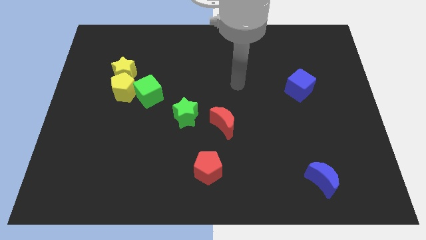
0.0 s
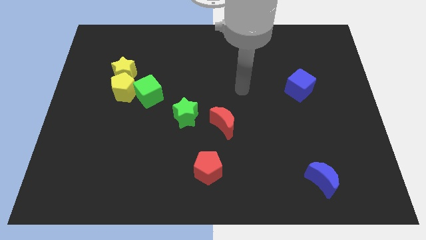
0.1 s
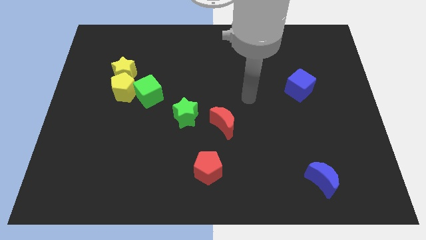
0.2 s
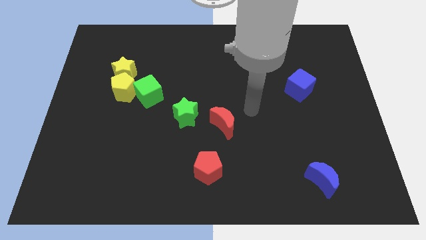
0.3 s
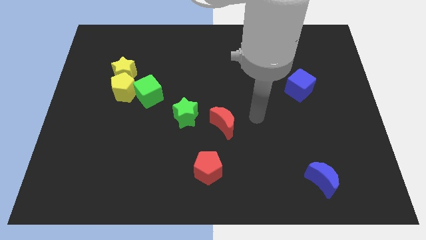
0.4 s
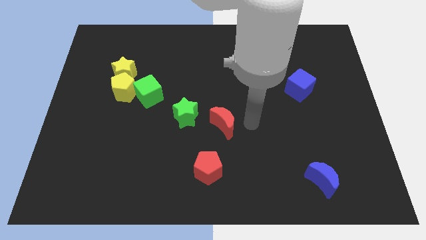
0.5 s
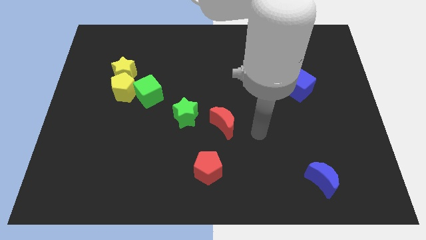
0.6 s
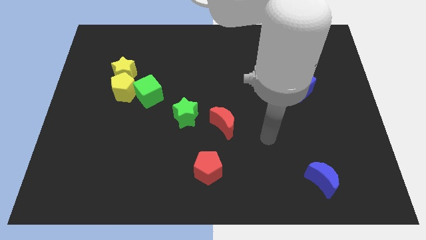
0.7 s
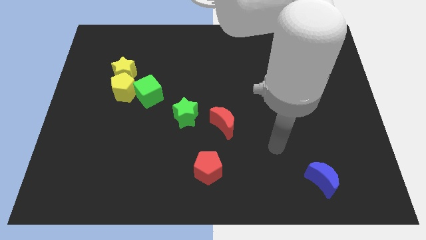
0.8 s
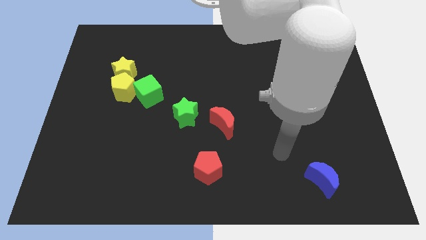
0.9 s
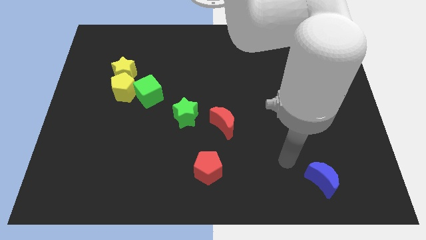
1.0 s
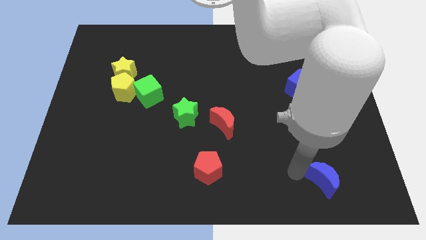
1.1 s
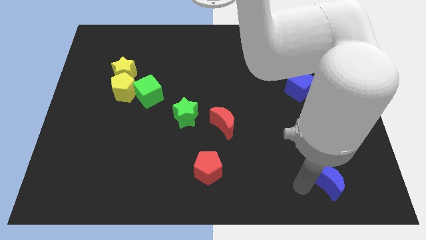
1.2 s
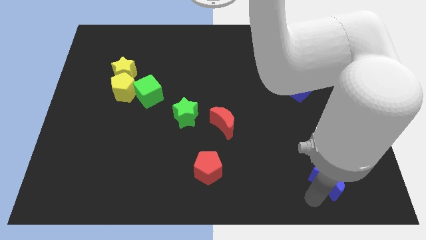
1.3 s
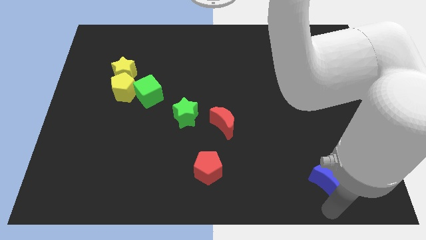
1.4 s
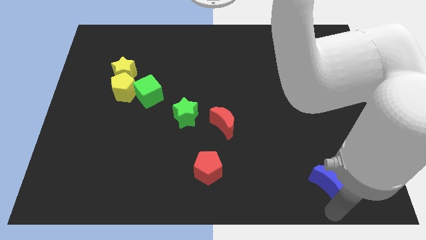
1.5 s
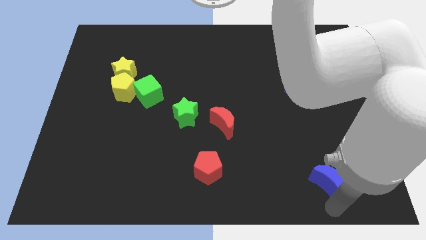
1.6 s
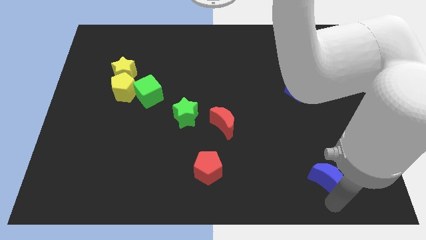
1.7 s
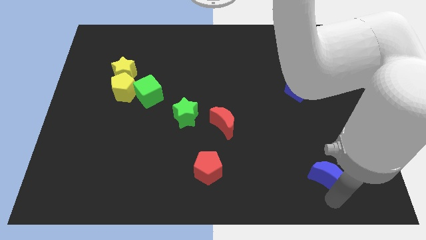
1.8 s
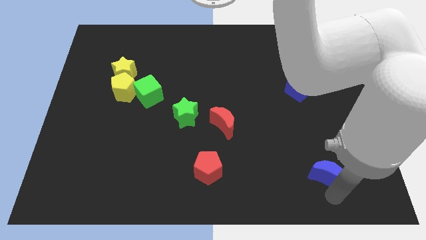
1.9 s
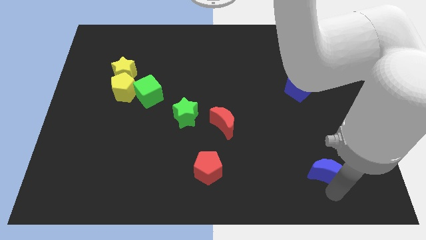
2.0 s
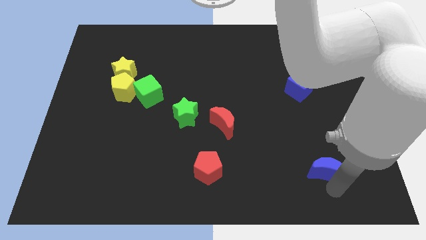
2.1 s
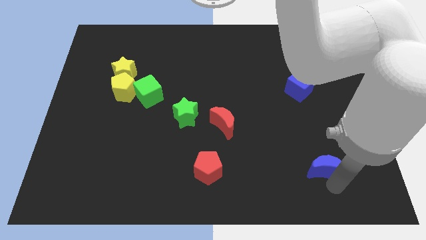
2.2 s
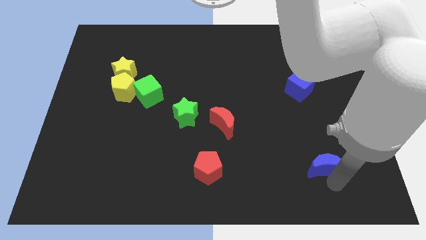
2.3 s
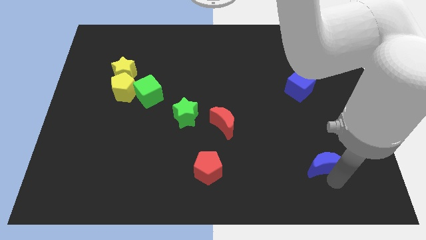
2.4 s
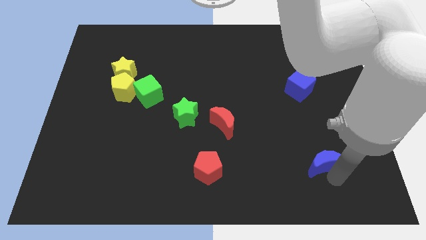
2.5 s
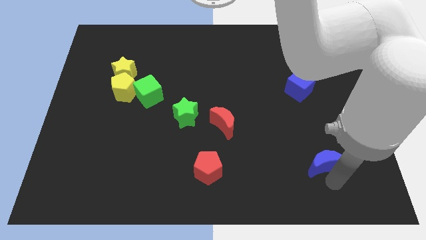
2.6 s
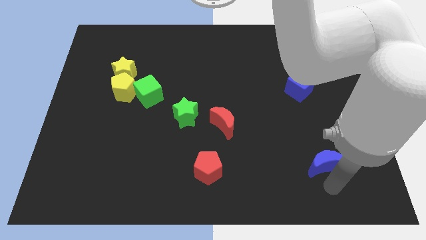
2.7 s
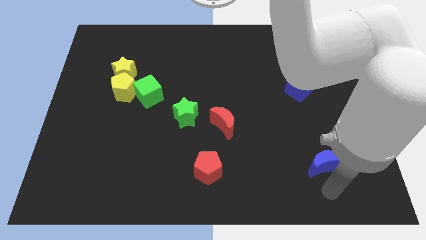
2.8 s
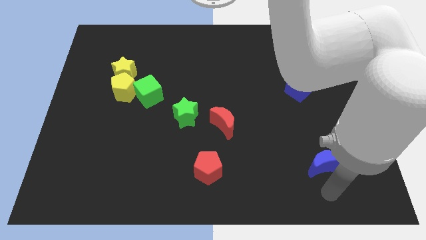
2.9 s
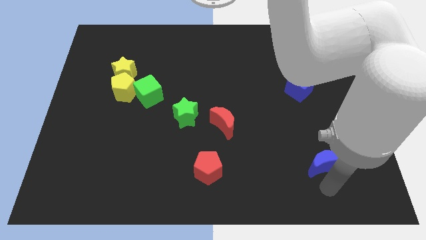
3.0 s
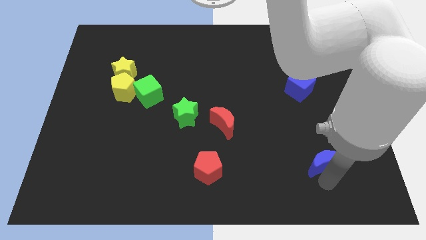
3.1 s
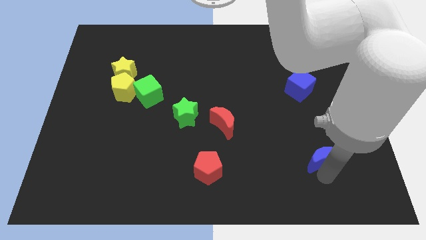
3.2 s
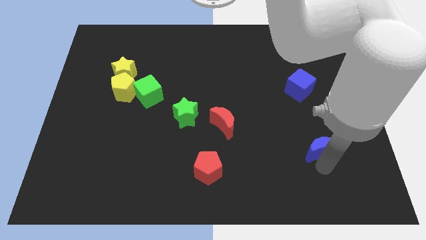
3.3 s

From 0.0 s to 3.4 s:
move the blue moon upwards somewhat

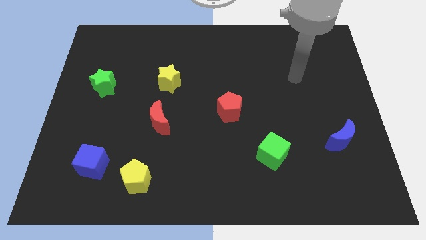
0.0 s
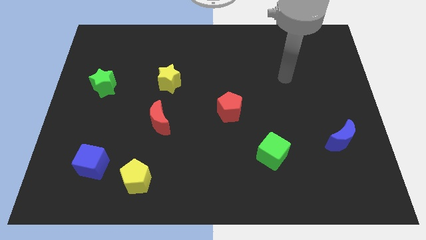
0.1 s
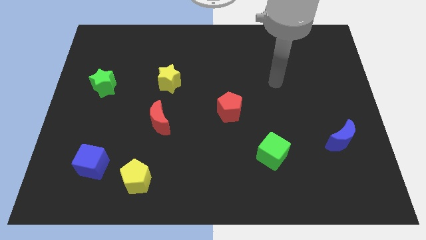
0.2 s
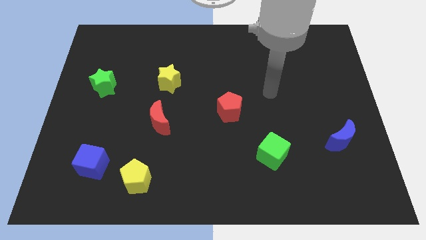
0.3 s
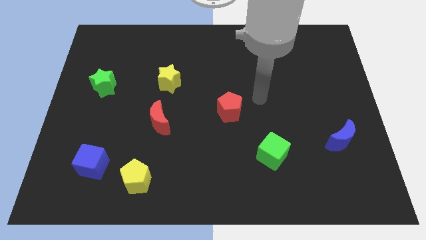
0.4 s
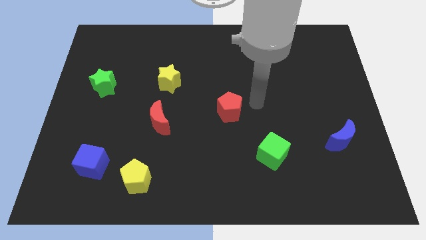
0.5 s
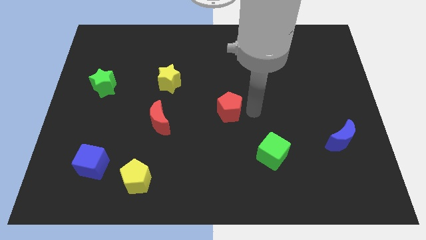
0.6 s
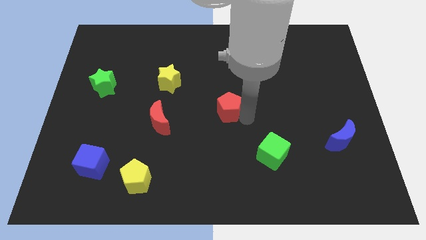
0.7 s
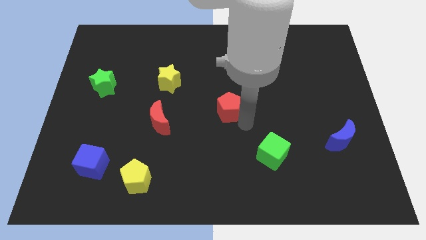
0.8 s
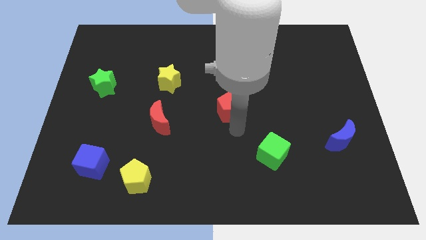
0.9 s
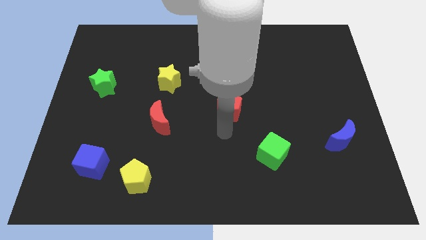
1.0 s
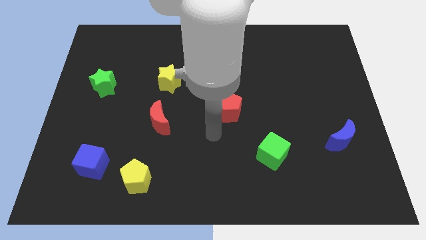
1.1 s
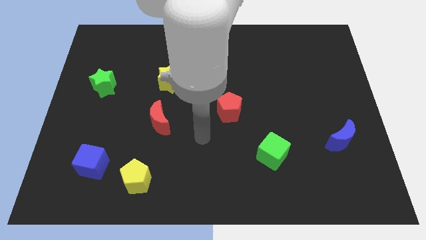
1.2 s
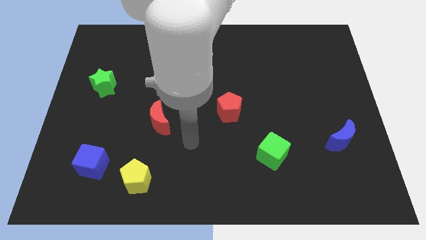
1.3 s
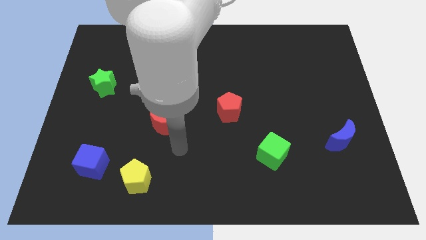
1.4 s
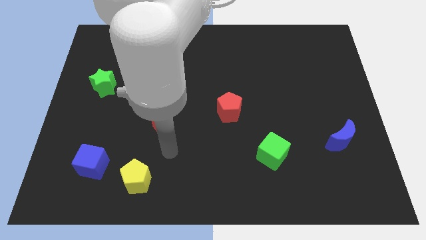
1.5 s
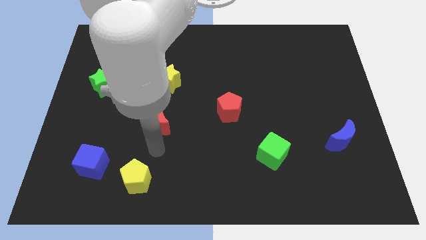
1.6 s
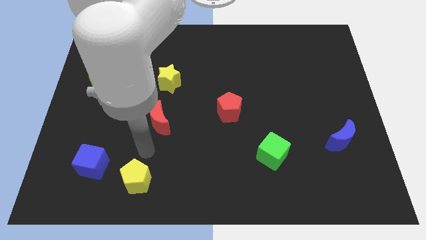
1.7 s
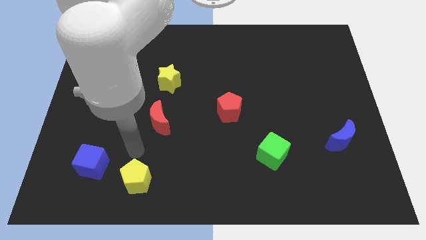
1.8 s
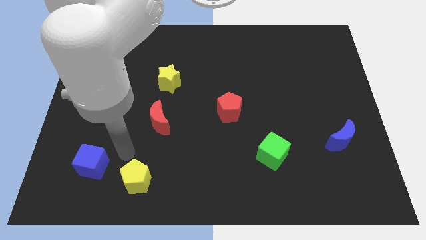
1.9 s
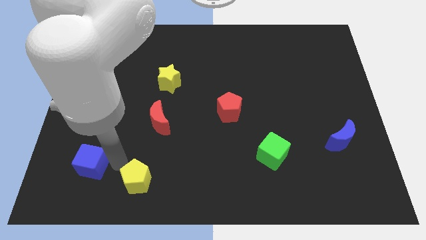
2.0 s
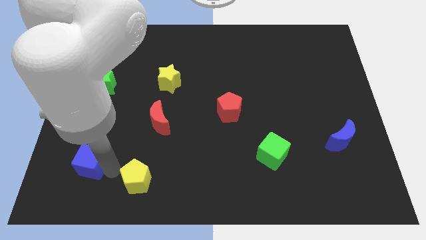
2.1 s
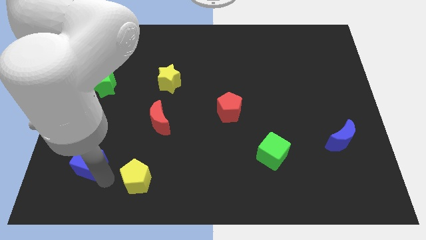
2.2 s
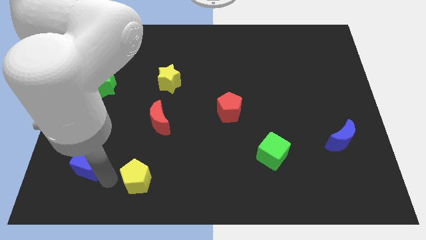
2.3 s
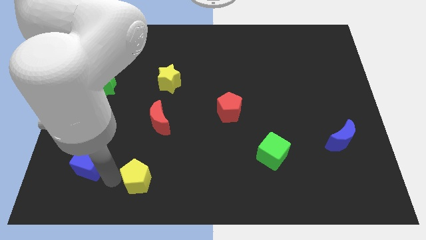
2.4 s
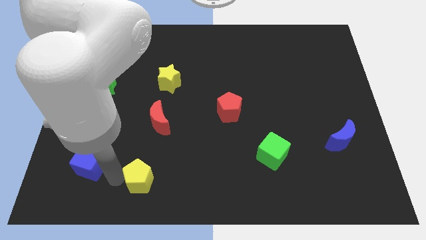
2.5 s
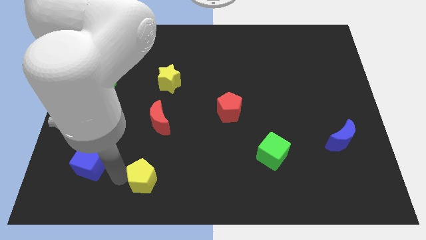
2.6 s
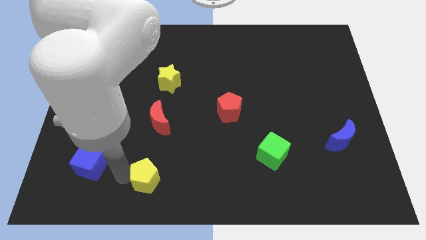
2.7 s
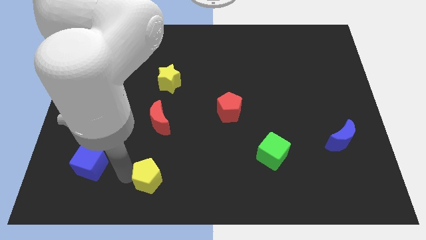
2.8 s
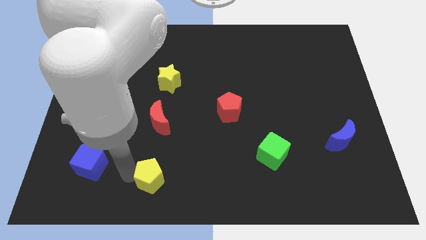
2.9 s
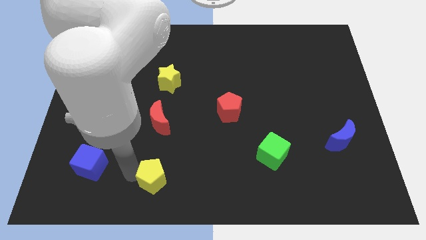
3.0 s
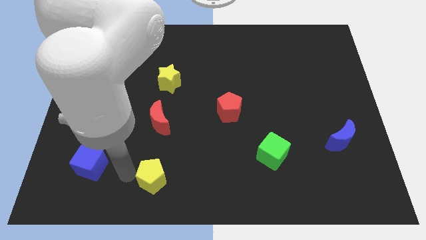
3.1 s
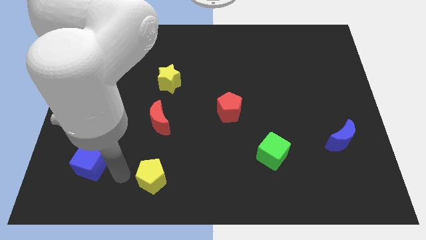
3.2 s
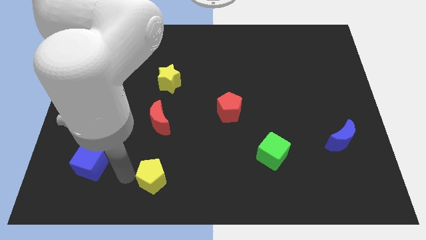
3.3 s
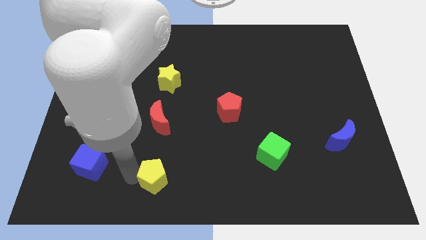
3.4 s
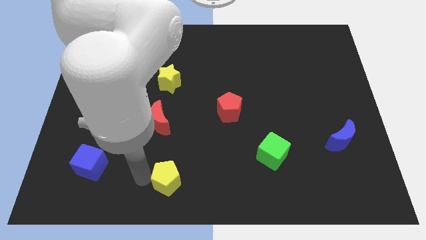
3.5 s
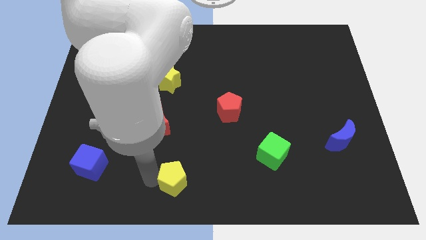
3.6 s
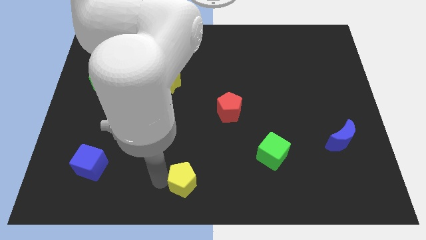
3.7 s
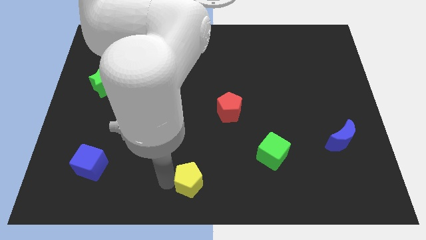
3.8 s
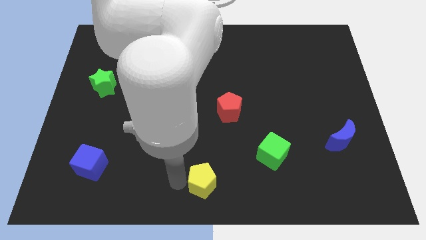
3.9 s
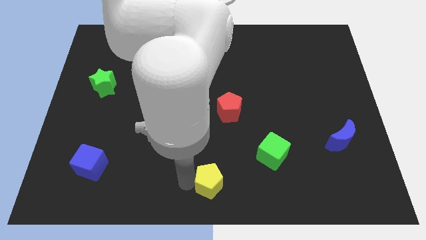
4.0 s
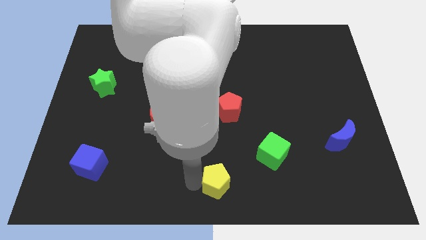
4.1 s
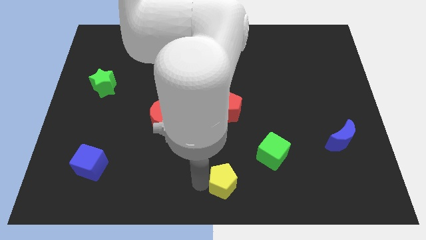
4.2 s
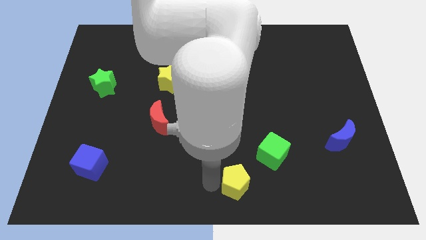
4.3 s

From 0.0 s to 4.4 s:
slide the yellow pentagon to the right

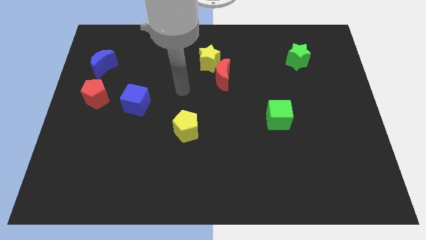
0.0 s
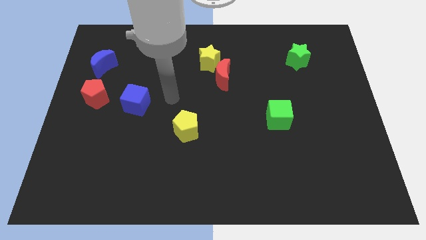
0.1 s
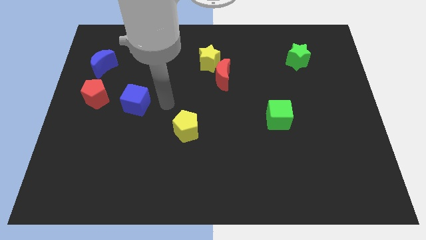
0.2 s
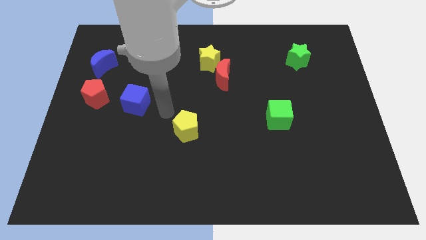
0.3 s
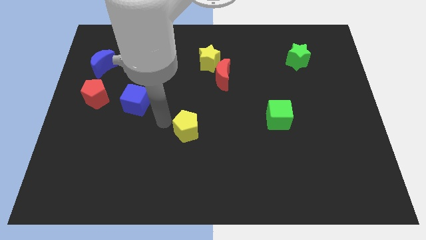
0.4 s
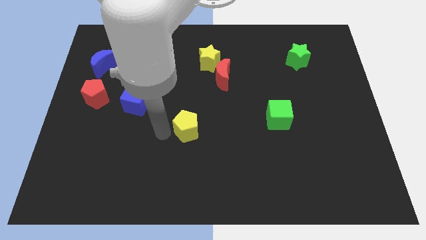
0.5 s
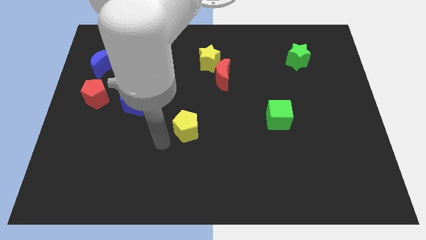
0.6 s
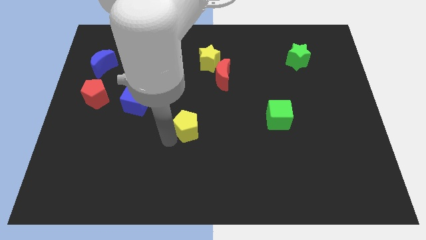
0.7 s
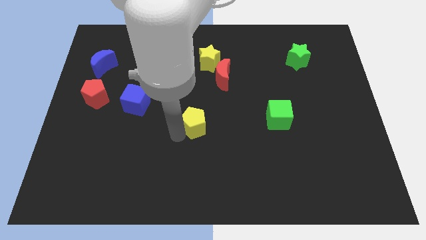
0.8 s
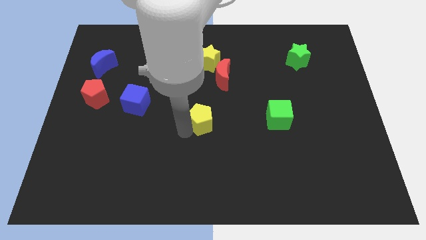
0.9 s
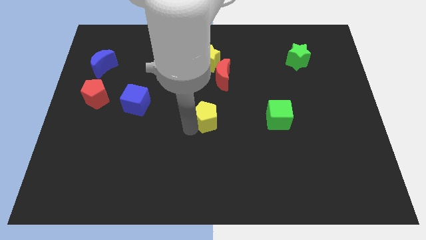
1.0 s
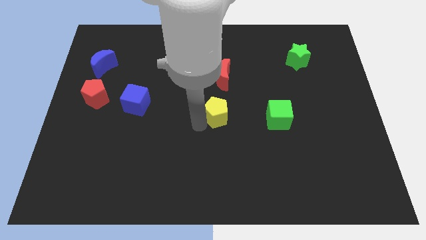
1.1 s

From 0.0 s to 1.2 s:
slightly slide the yellow pentagon diagonally upwards and right
